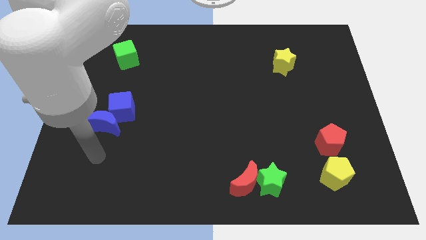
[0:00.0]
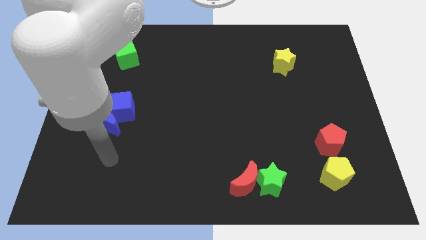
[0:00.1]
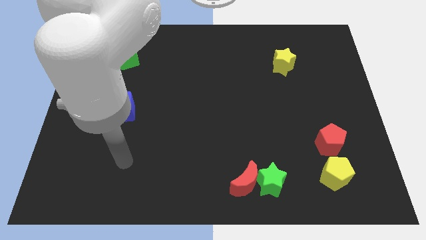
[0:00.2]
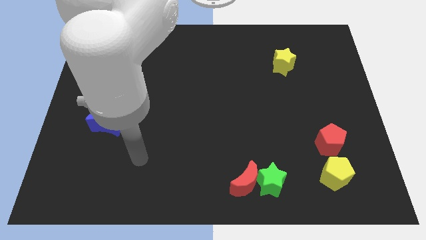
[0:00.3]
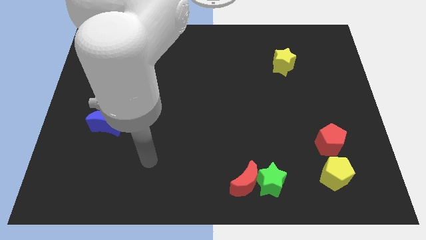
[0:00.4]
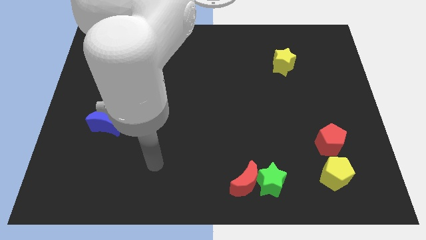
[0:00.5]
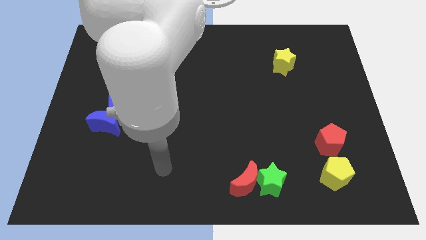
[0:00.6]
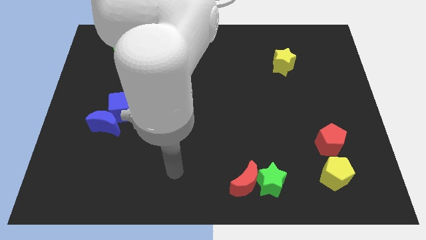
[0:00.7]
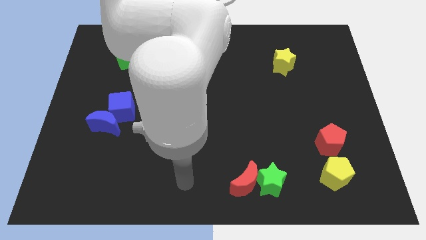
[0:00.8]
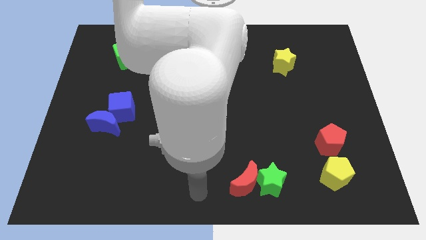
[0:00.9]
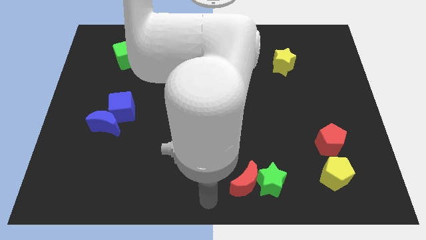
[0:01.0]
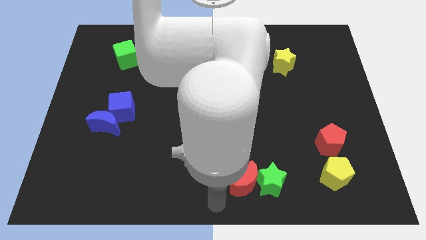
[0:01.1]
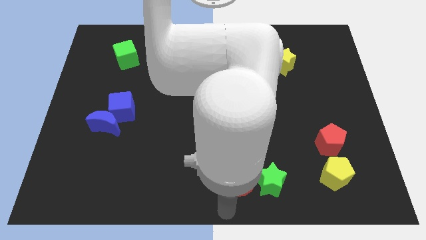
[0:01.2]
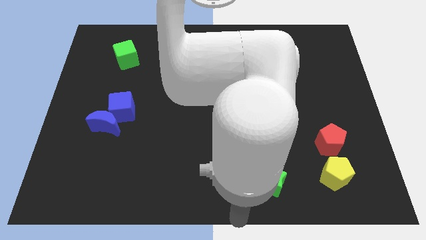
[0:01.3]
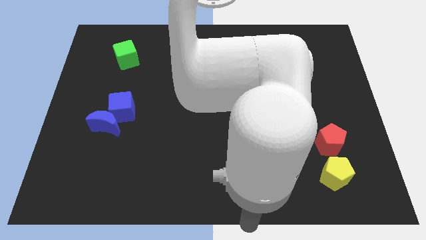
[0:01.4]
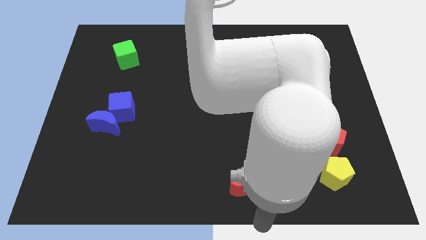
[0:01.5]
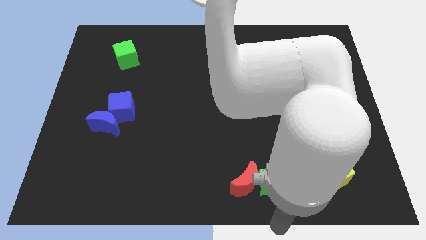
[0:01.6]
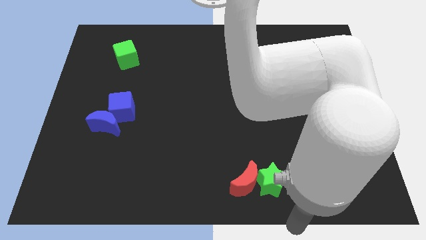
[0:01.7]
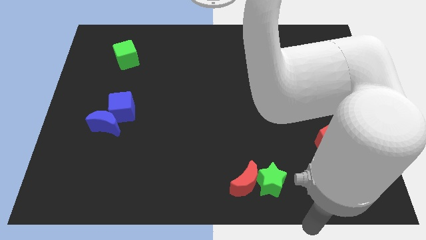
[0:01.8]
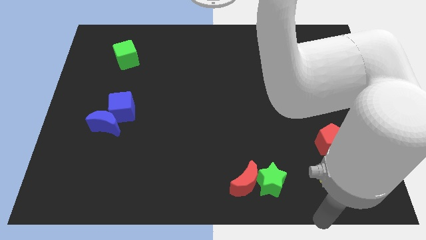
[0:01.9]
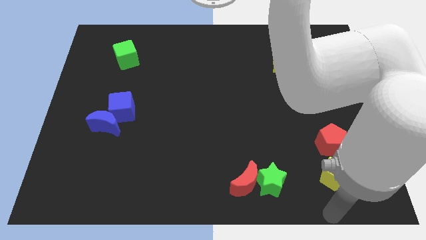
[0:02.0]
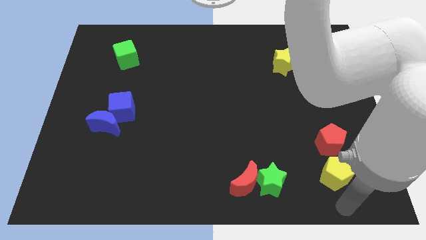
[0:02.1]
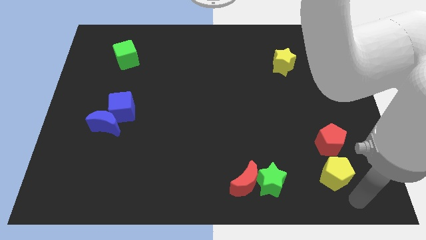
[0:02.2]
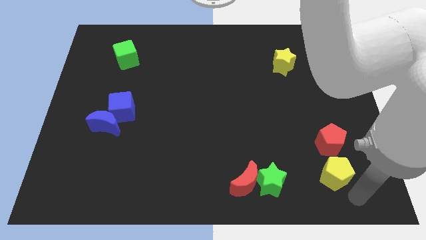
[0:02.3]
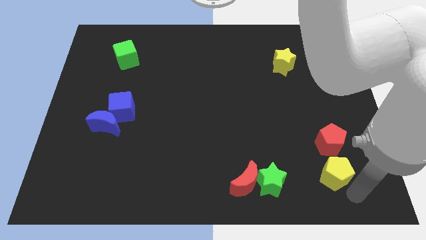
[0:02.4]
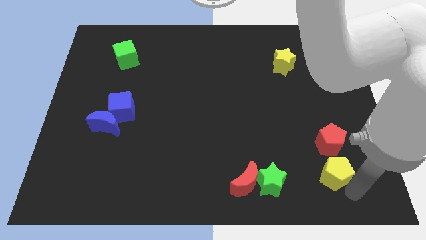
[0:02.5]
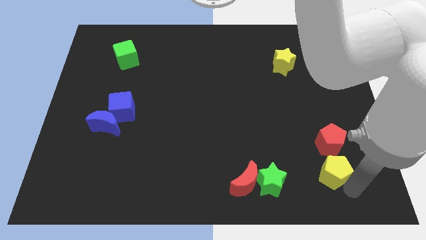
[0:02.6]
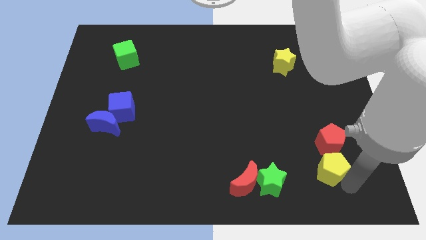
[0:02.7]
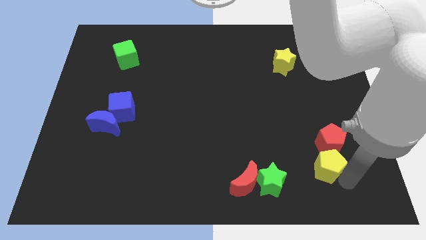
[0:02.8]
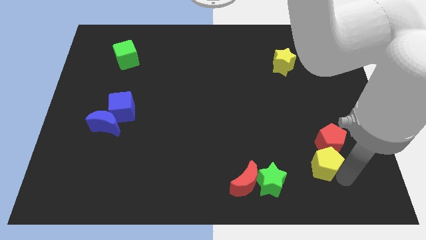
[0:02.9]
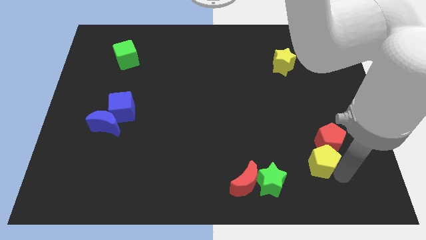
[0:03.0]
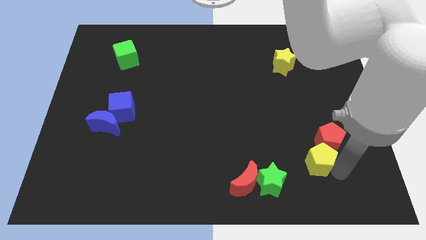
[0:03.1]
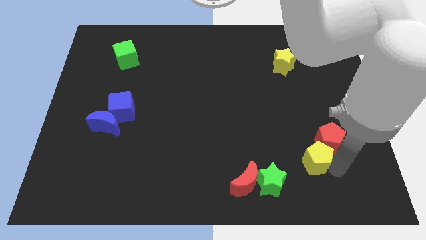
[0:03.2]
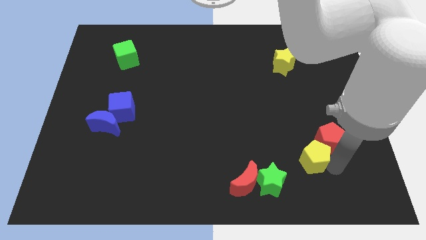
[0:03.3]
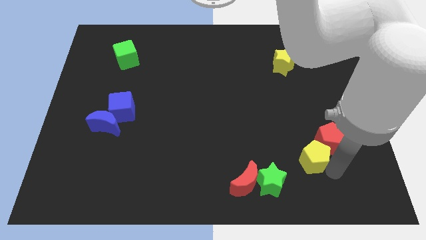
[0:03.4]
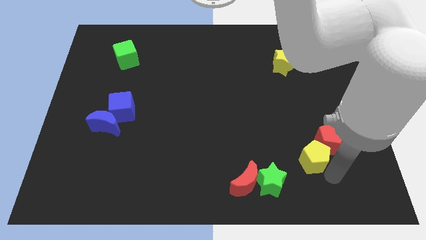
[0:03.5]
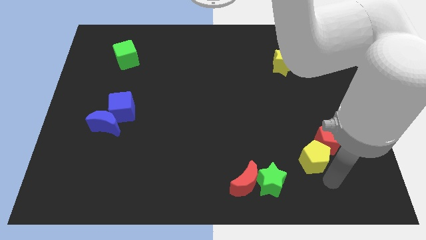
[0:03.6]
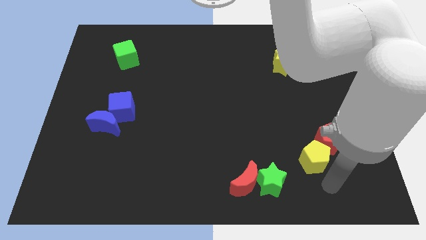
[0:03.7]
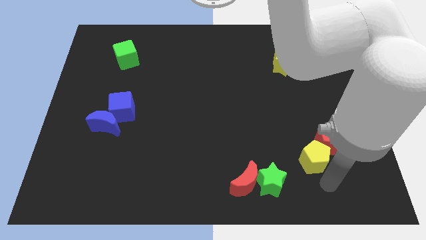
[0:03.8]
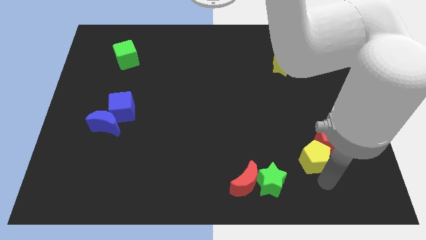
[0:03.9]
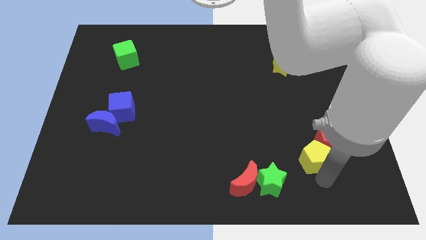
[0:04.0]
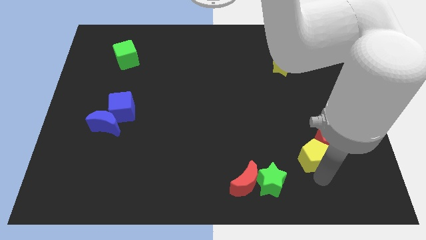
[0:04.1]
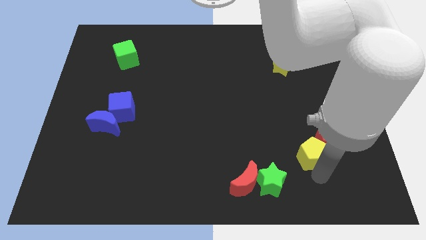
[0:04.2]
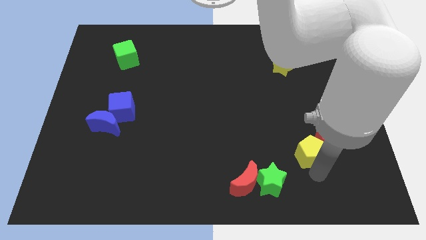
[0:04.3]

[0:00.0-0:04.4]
push the yellow pentagon up and left a little

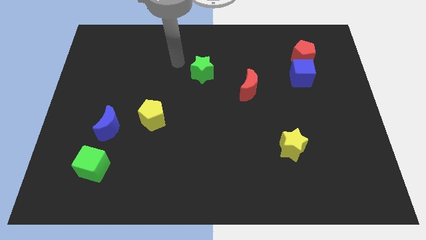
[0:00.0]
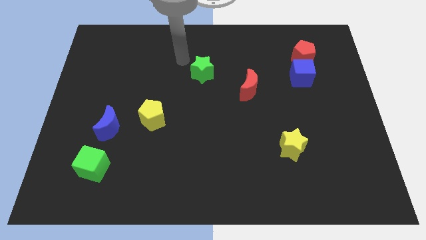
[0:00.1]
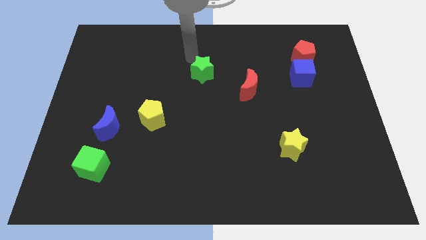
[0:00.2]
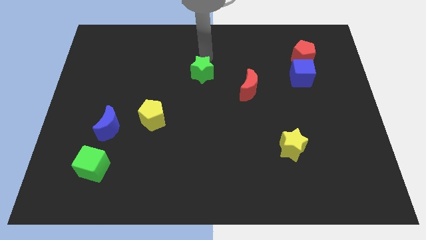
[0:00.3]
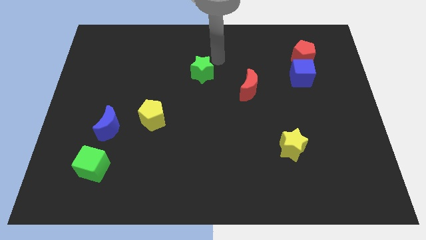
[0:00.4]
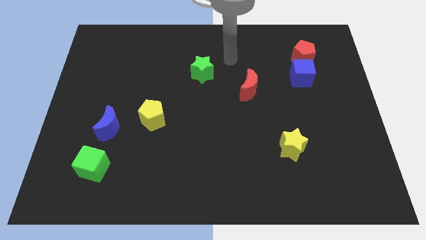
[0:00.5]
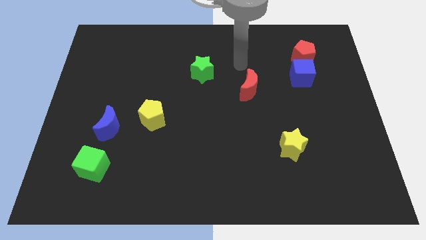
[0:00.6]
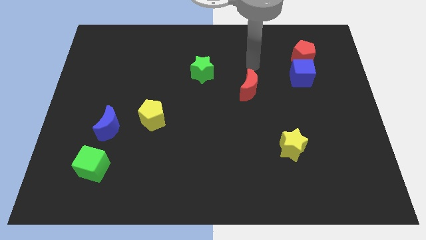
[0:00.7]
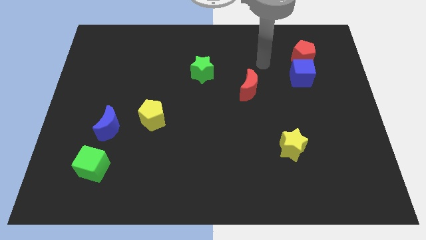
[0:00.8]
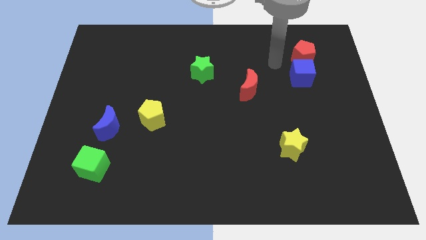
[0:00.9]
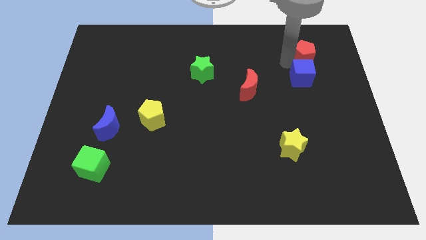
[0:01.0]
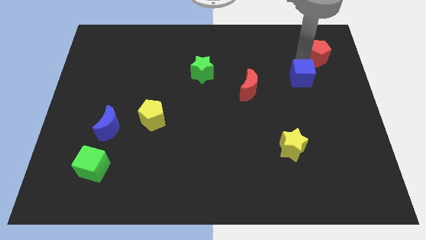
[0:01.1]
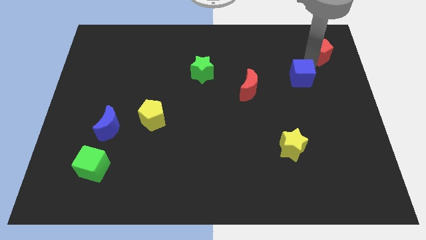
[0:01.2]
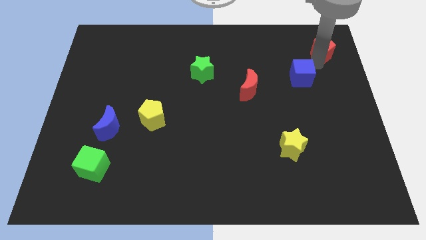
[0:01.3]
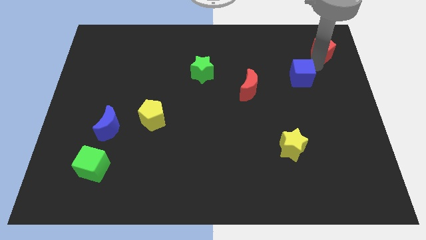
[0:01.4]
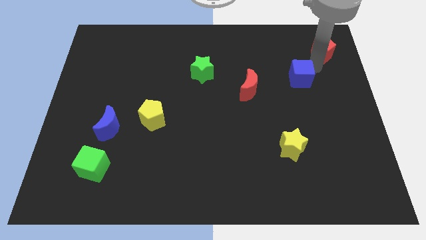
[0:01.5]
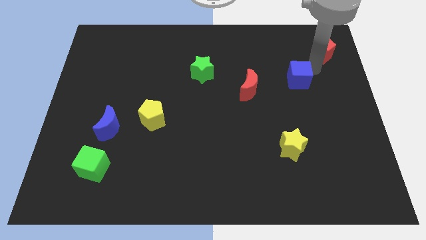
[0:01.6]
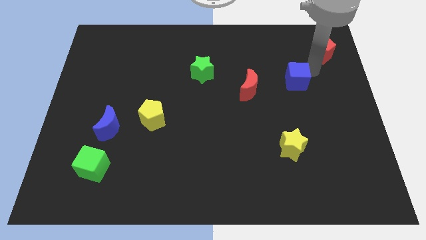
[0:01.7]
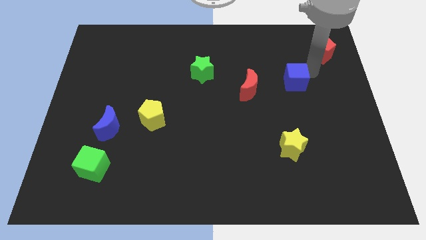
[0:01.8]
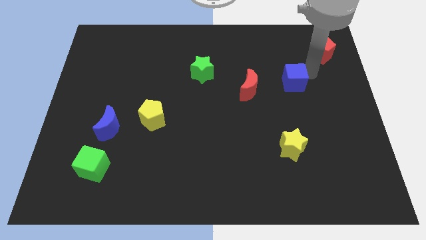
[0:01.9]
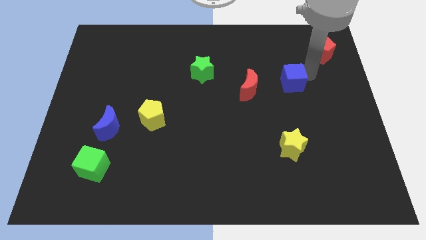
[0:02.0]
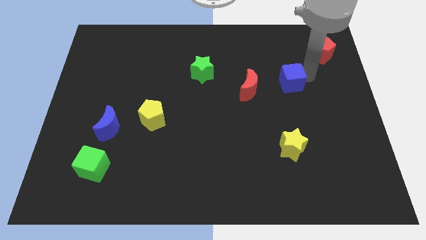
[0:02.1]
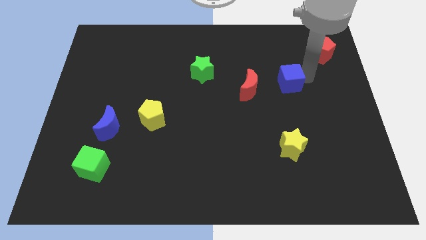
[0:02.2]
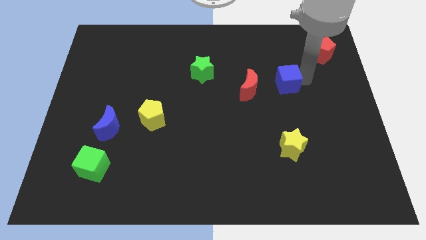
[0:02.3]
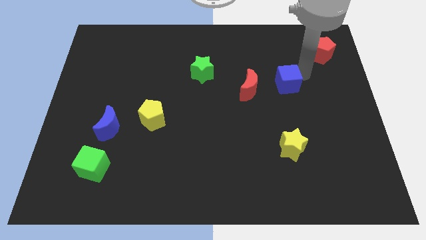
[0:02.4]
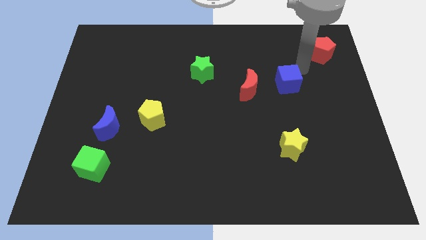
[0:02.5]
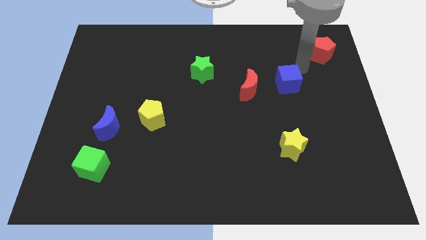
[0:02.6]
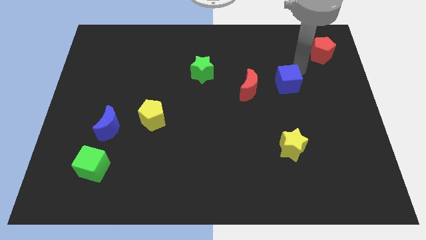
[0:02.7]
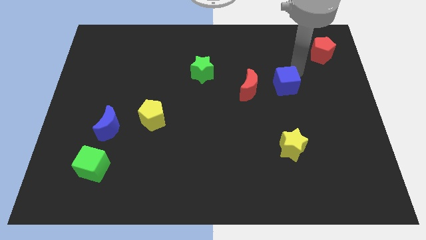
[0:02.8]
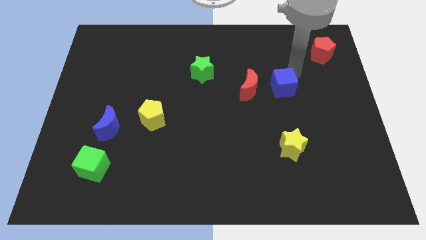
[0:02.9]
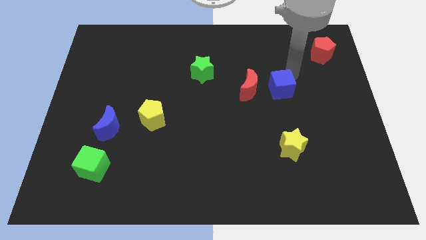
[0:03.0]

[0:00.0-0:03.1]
push the blue cube a little bit down and to the left

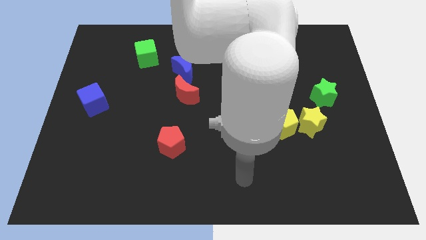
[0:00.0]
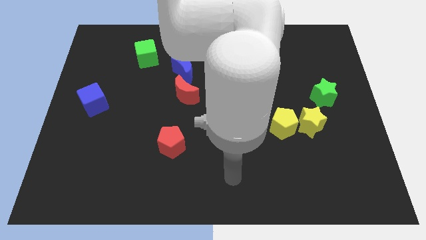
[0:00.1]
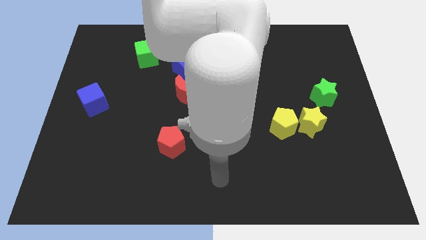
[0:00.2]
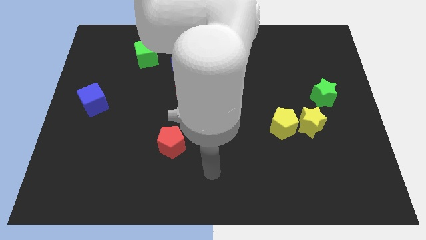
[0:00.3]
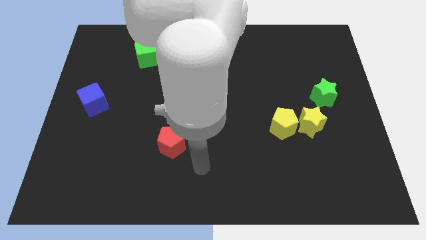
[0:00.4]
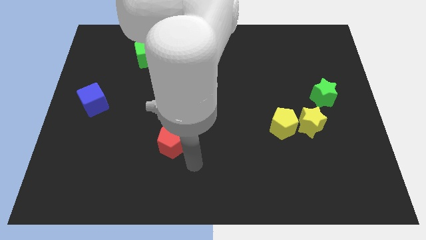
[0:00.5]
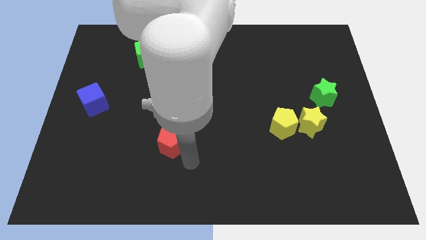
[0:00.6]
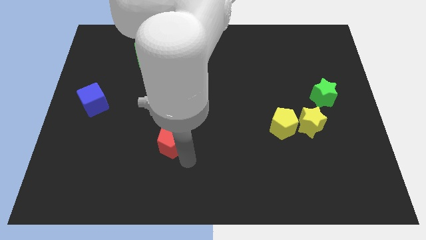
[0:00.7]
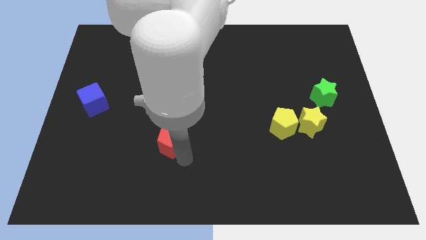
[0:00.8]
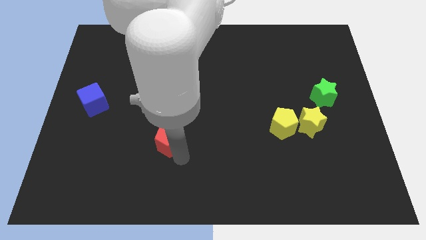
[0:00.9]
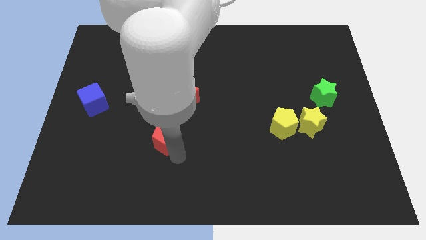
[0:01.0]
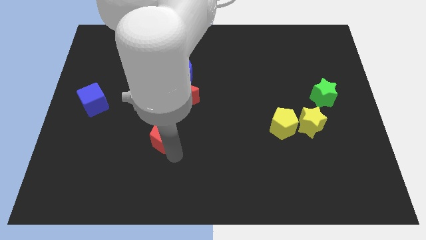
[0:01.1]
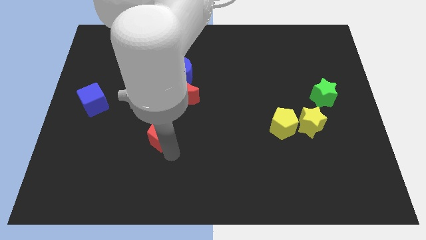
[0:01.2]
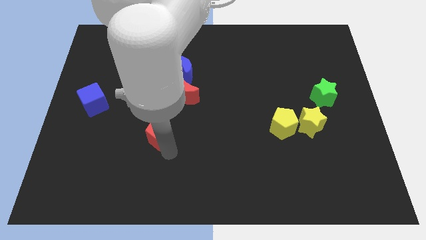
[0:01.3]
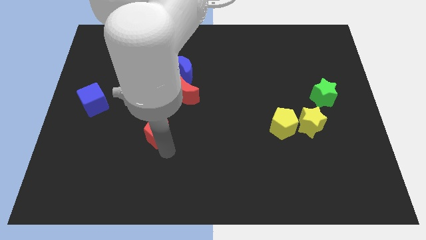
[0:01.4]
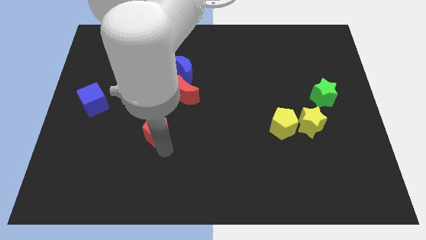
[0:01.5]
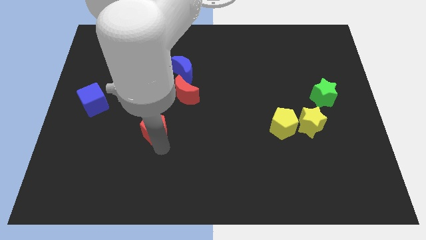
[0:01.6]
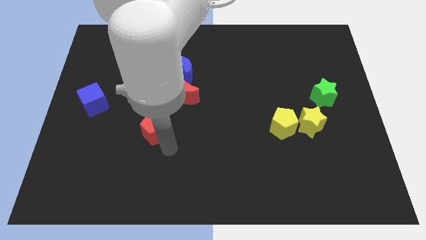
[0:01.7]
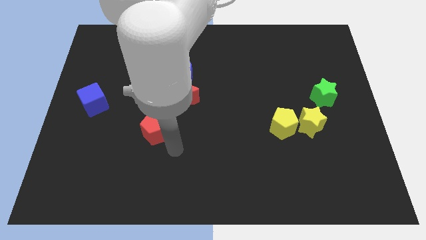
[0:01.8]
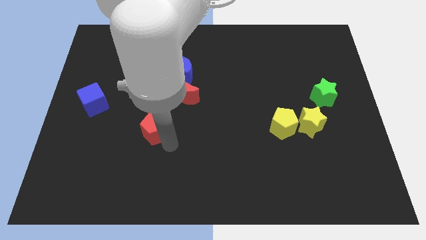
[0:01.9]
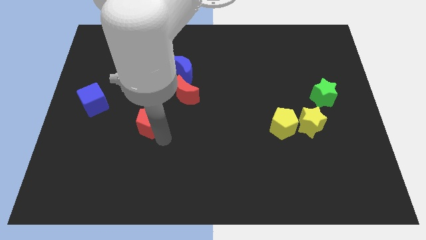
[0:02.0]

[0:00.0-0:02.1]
slide the red pentagon up and left a little bit
